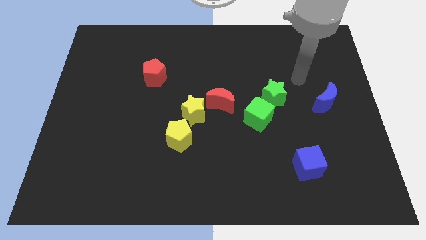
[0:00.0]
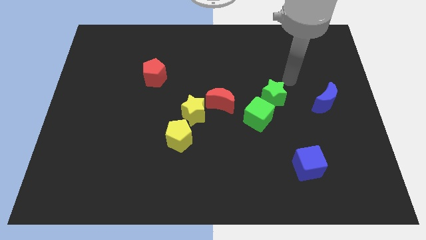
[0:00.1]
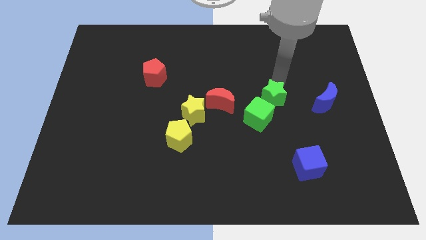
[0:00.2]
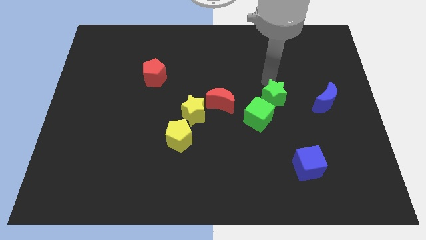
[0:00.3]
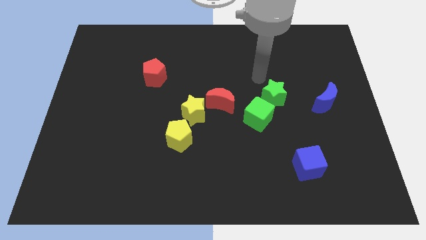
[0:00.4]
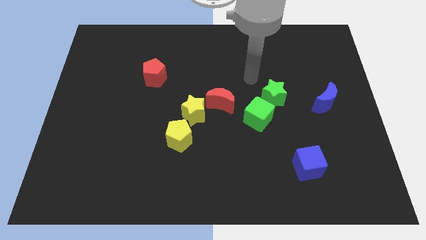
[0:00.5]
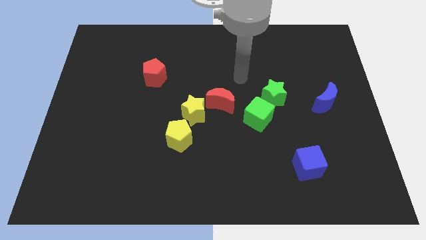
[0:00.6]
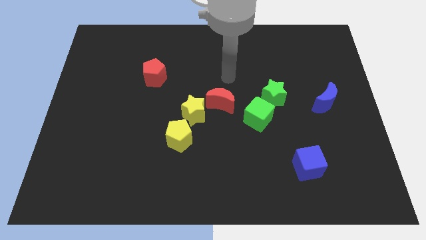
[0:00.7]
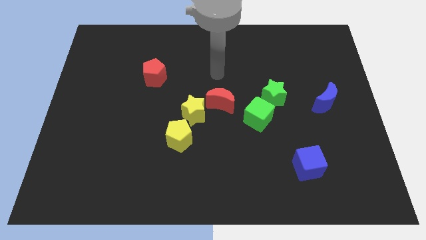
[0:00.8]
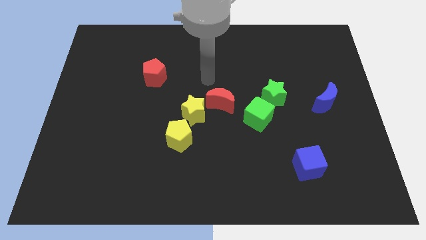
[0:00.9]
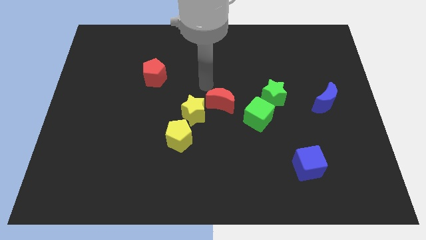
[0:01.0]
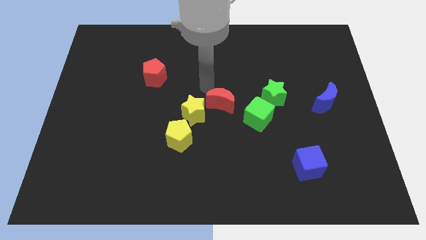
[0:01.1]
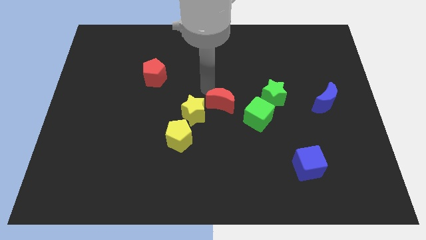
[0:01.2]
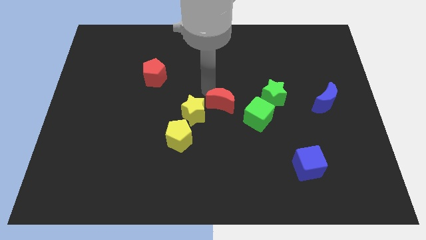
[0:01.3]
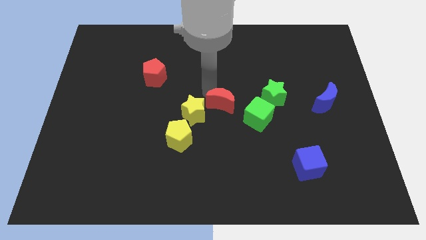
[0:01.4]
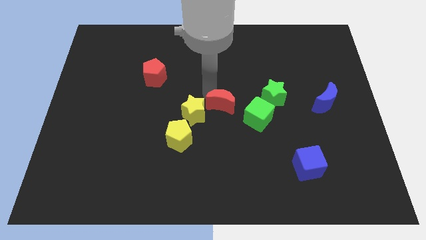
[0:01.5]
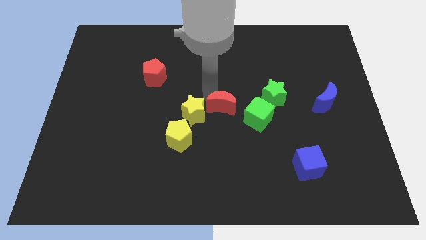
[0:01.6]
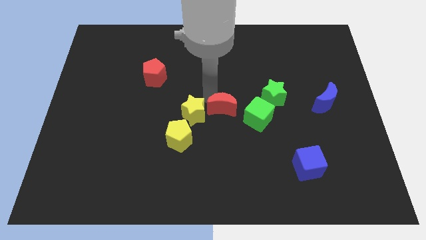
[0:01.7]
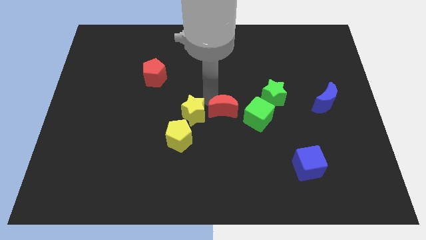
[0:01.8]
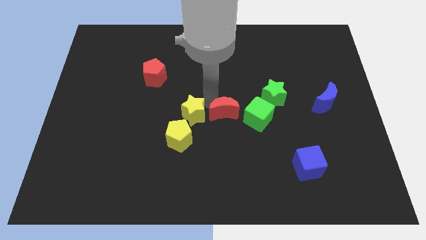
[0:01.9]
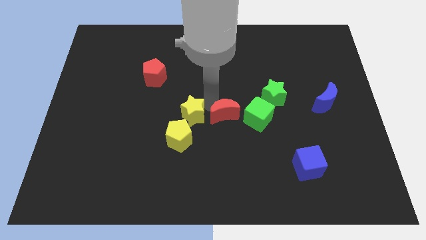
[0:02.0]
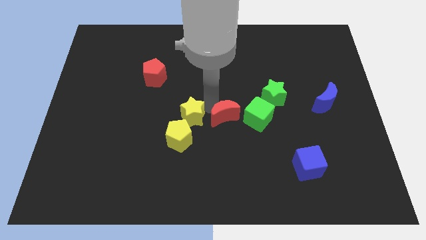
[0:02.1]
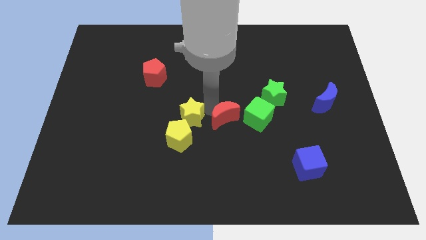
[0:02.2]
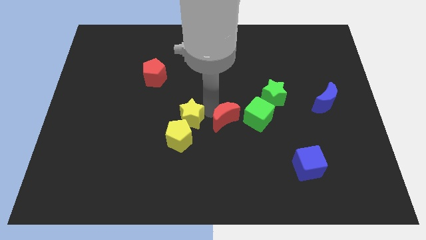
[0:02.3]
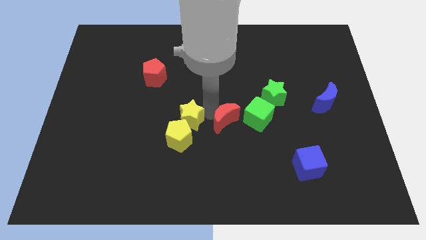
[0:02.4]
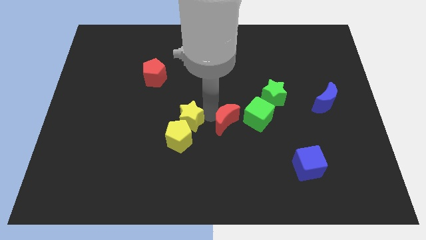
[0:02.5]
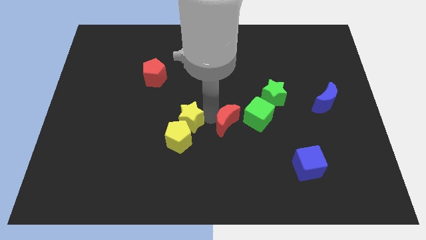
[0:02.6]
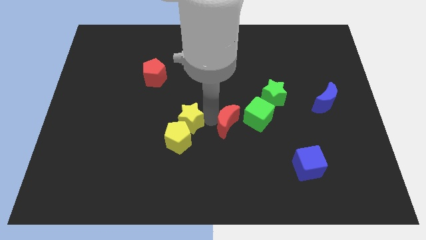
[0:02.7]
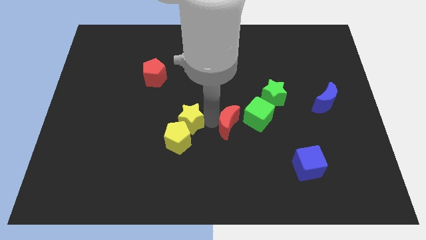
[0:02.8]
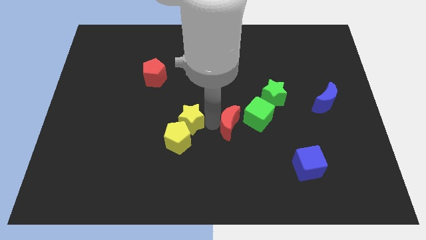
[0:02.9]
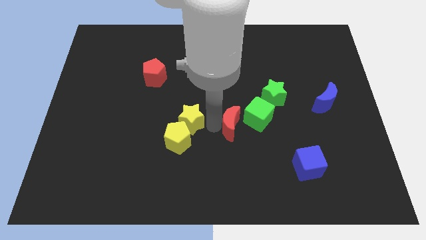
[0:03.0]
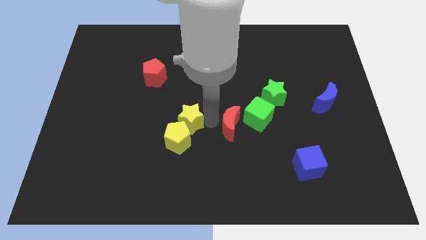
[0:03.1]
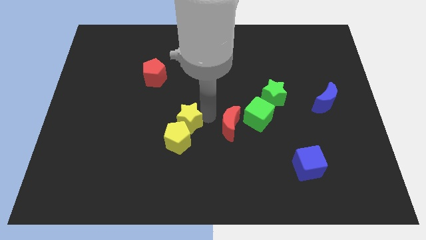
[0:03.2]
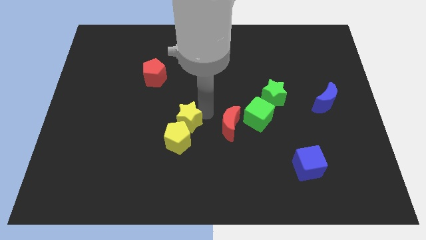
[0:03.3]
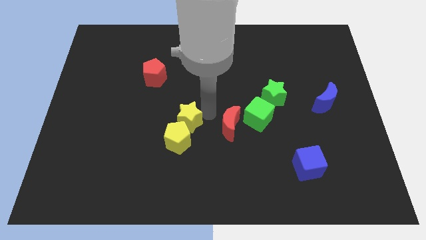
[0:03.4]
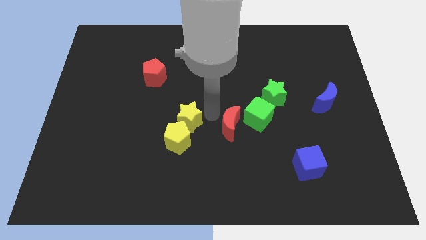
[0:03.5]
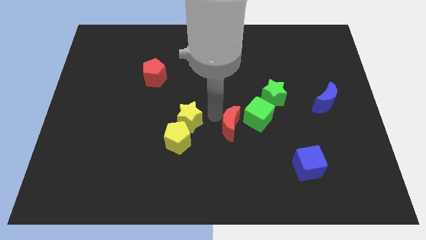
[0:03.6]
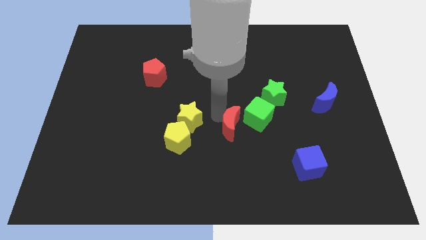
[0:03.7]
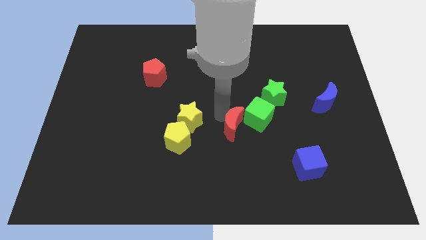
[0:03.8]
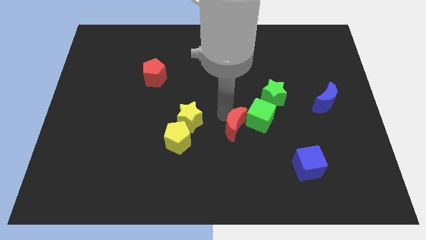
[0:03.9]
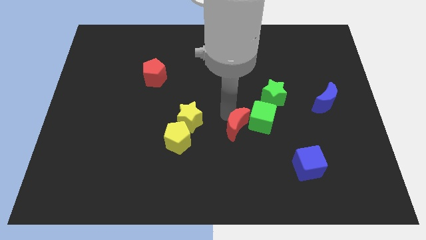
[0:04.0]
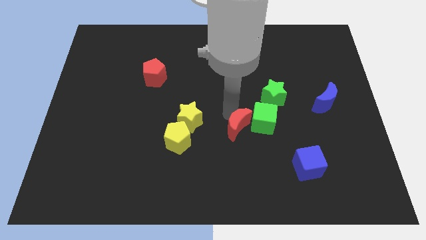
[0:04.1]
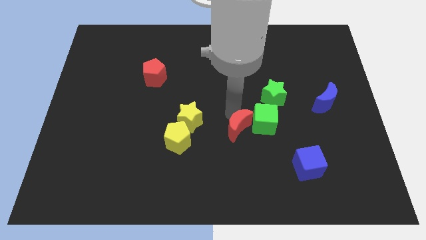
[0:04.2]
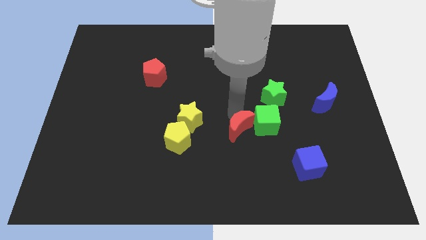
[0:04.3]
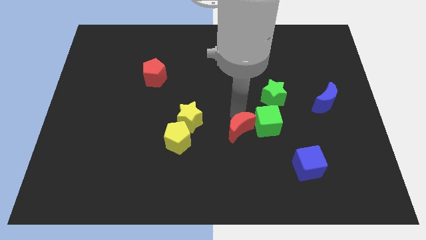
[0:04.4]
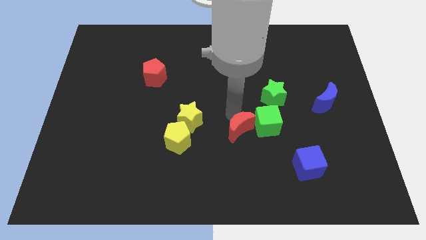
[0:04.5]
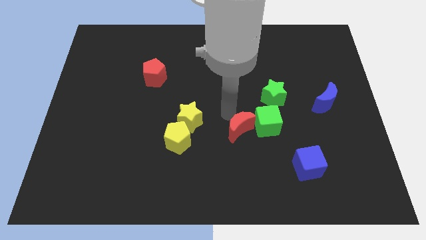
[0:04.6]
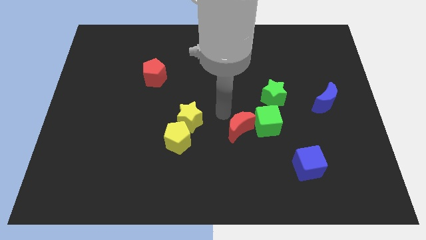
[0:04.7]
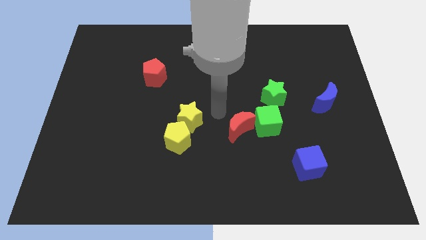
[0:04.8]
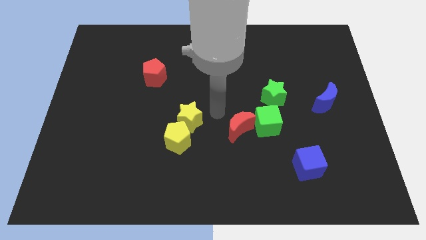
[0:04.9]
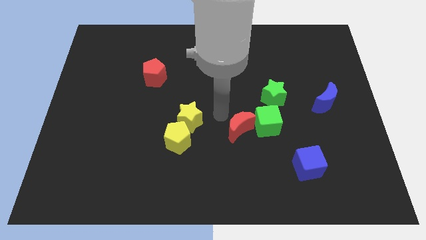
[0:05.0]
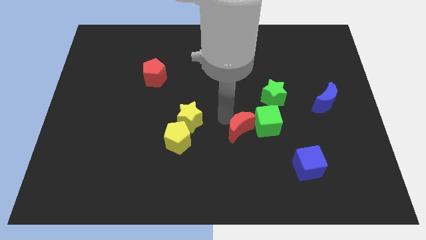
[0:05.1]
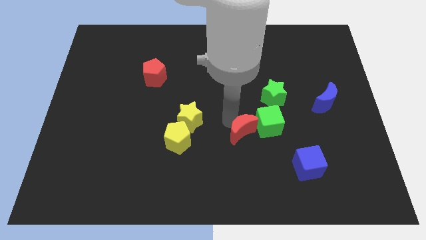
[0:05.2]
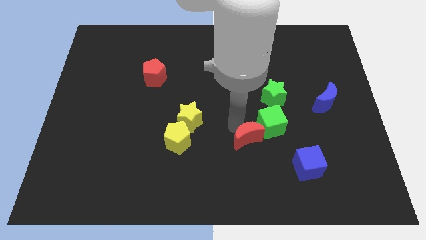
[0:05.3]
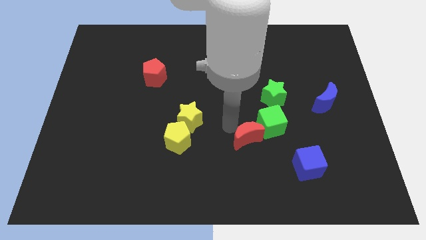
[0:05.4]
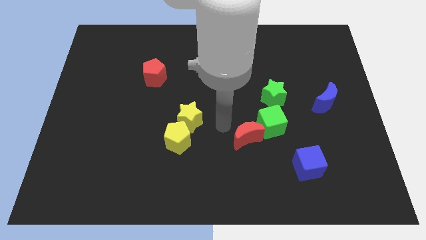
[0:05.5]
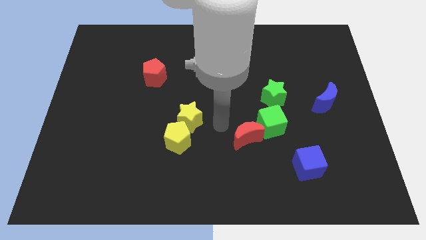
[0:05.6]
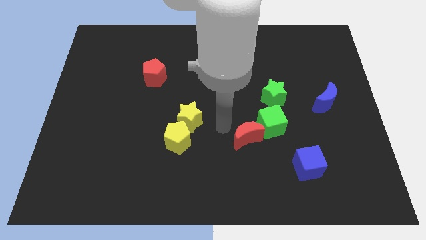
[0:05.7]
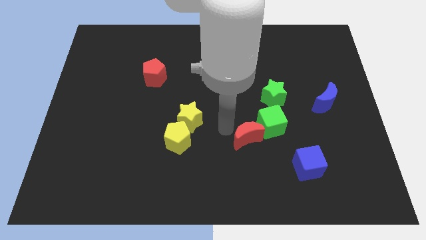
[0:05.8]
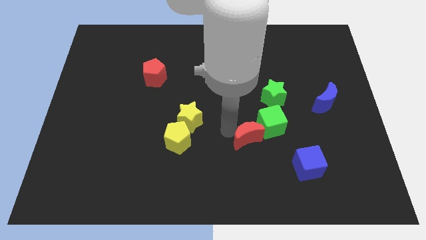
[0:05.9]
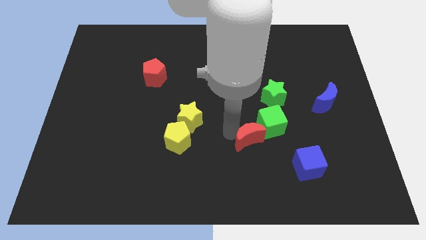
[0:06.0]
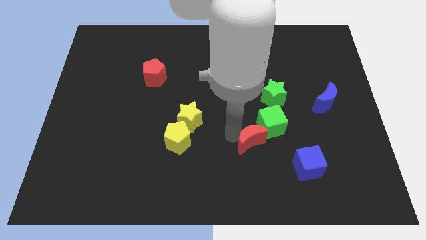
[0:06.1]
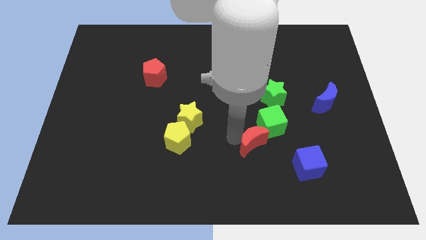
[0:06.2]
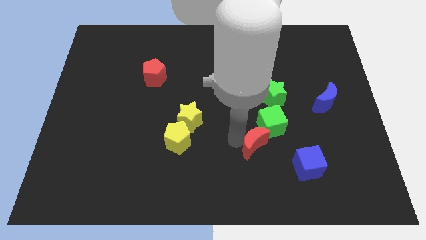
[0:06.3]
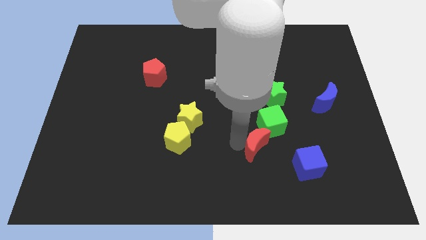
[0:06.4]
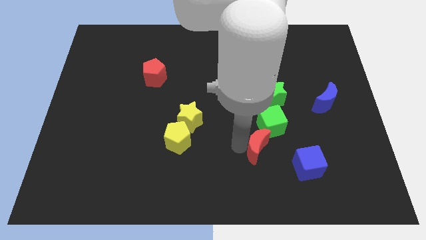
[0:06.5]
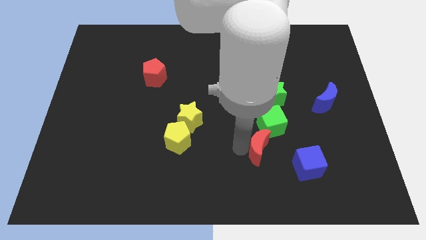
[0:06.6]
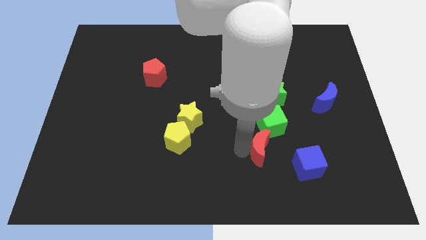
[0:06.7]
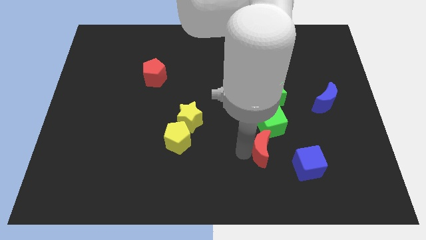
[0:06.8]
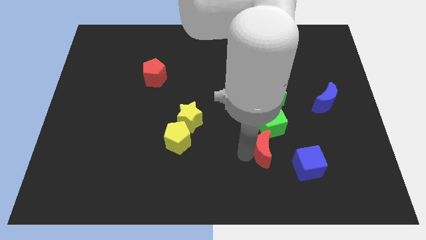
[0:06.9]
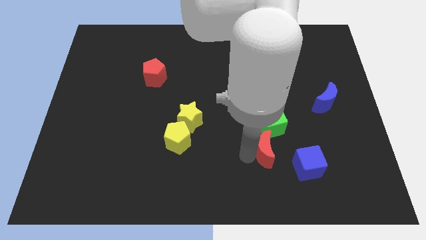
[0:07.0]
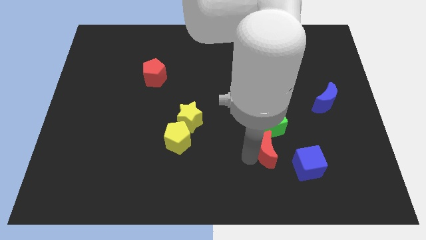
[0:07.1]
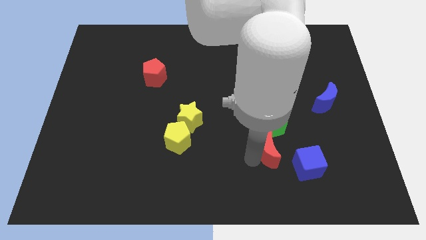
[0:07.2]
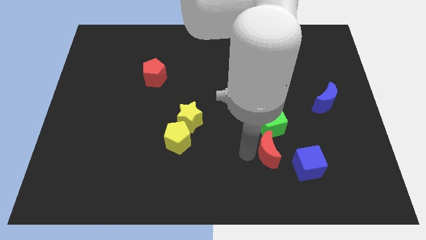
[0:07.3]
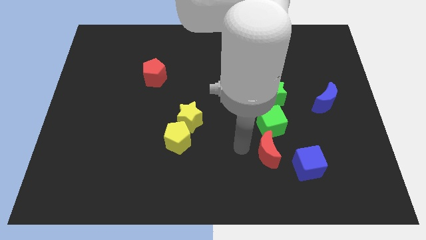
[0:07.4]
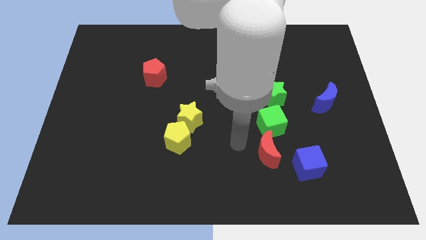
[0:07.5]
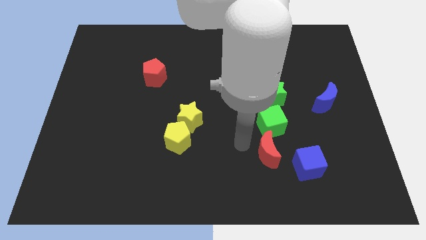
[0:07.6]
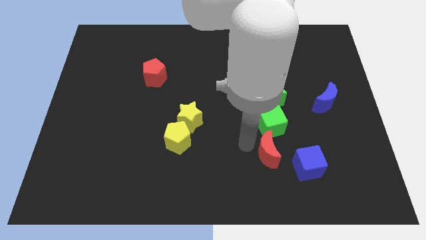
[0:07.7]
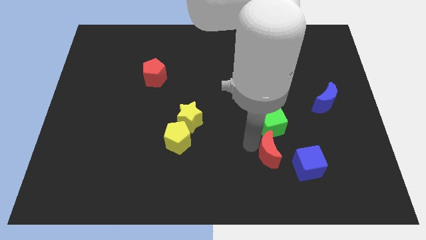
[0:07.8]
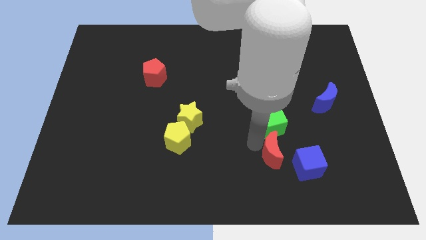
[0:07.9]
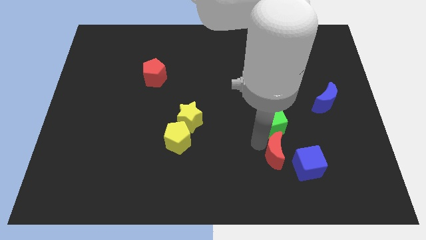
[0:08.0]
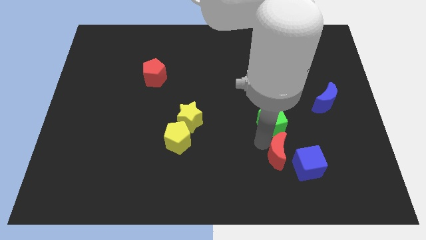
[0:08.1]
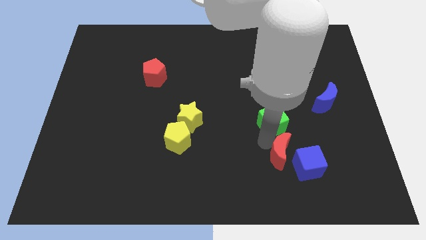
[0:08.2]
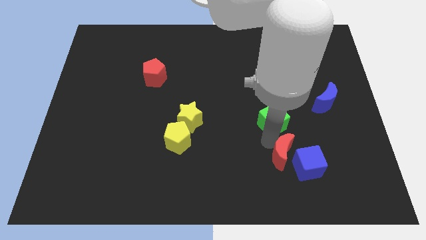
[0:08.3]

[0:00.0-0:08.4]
put the red moon close to the blue cube
